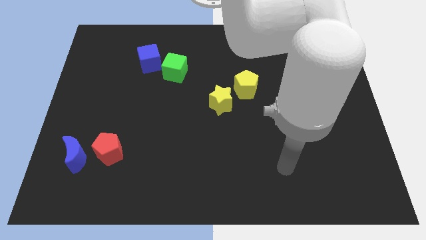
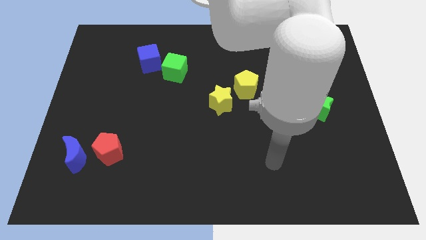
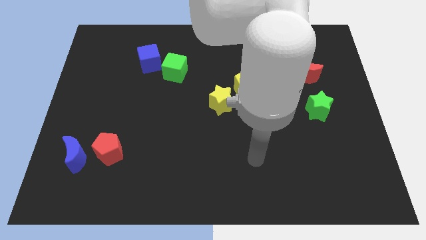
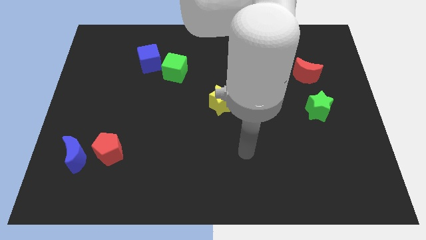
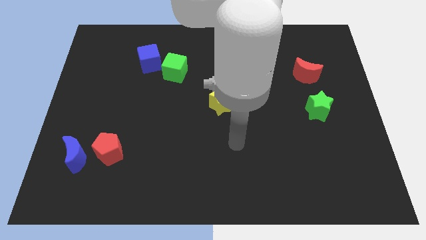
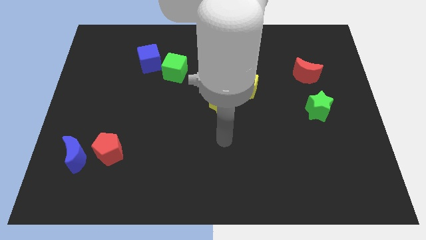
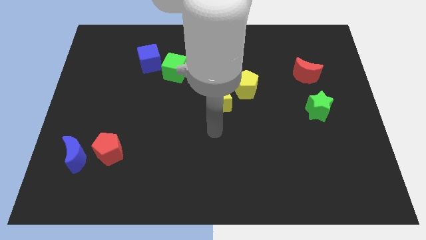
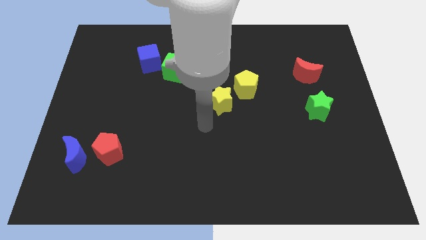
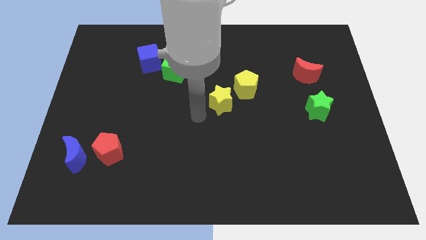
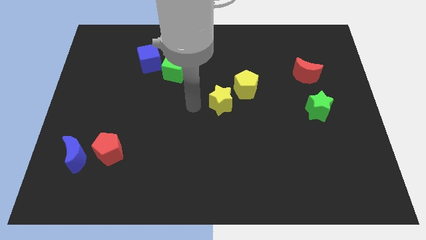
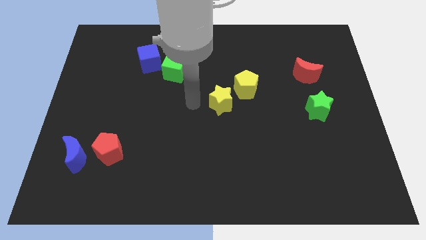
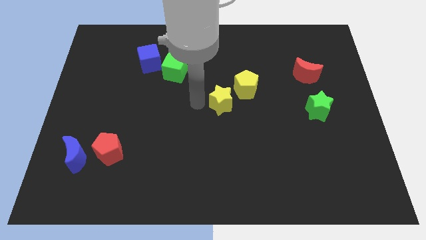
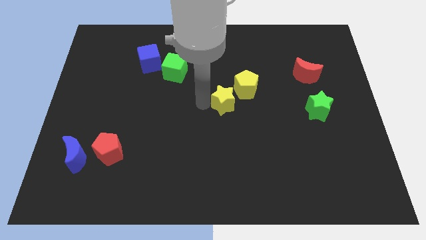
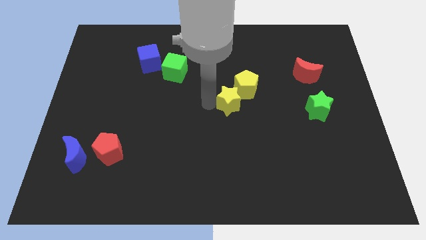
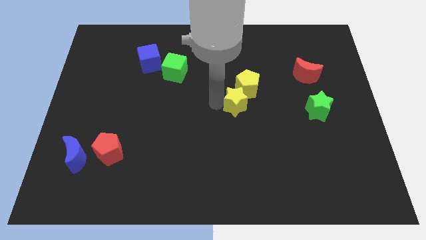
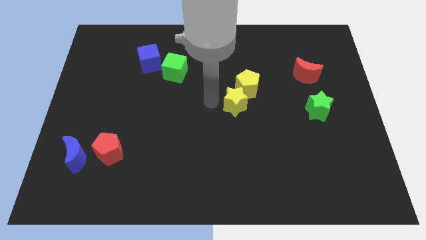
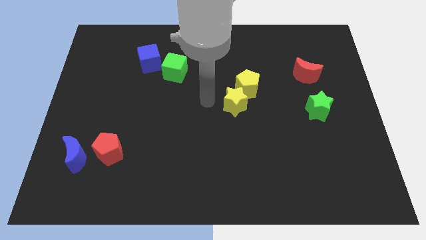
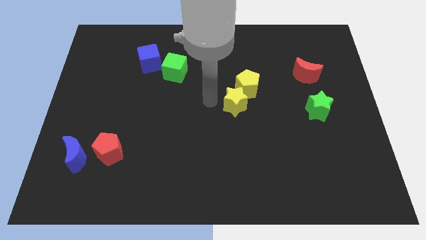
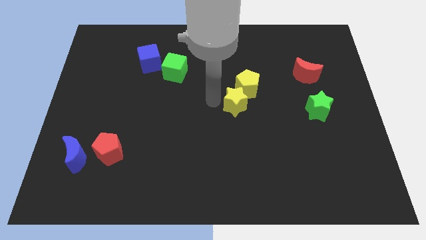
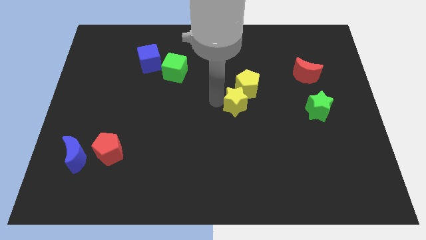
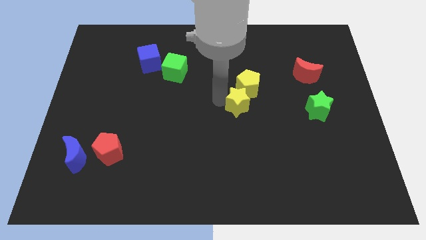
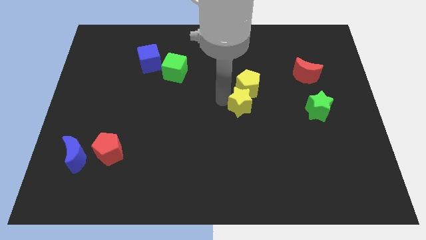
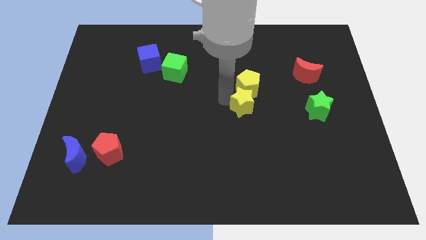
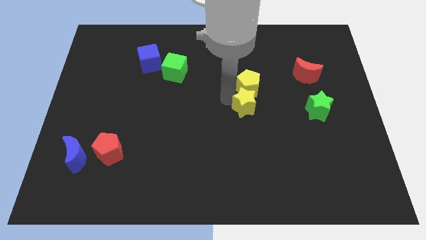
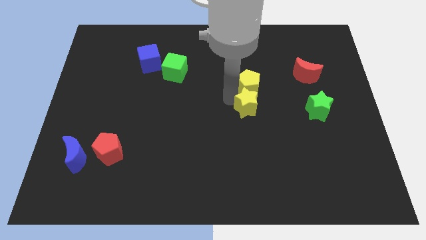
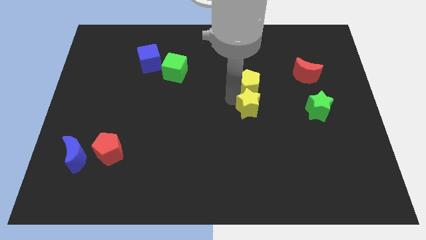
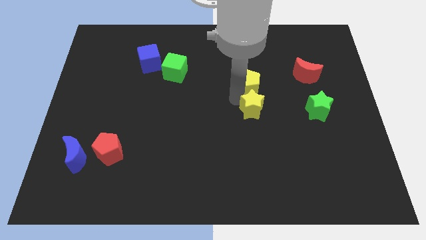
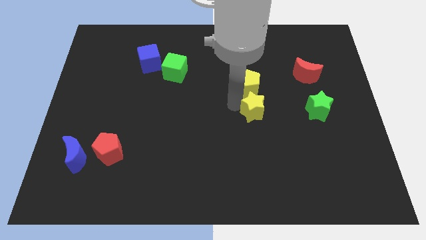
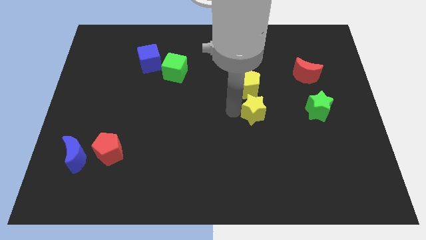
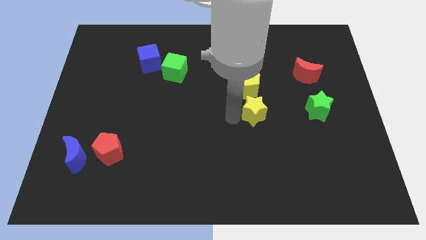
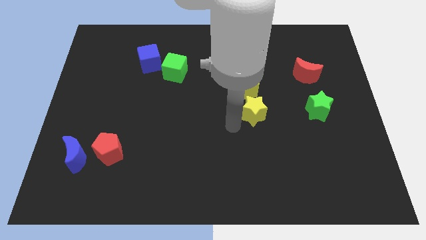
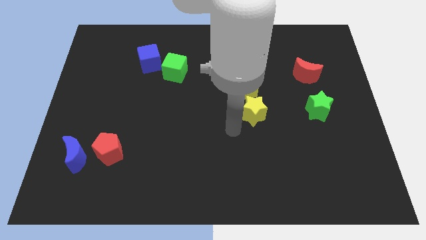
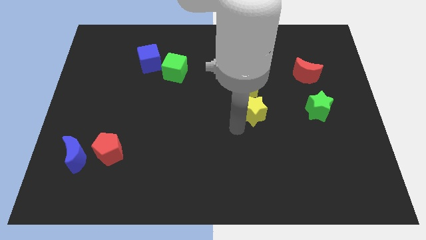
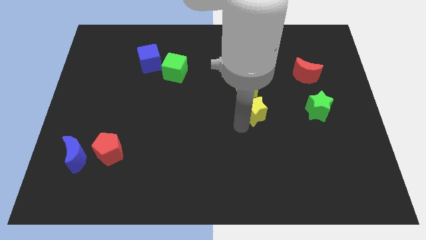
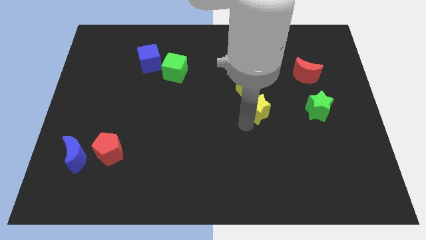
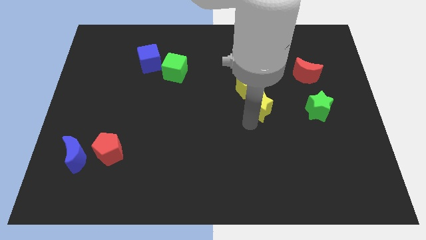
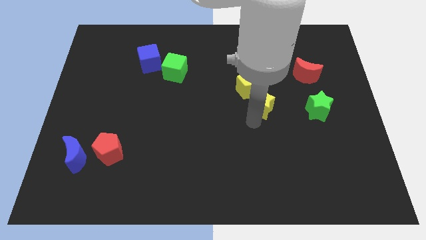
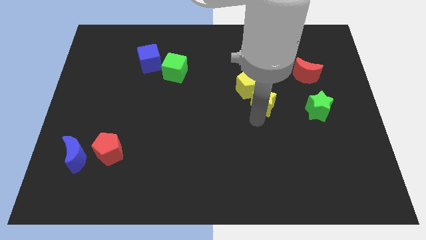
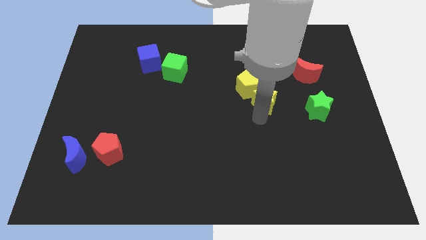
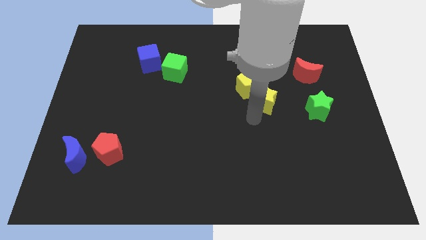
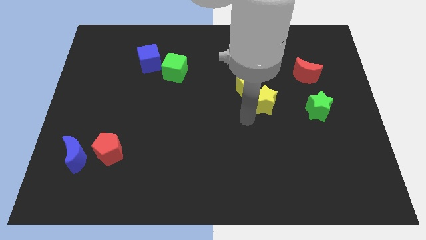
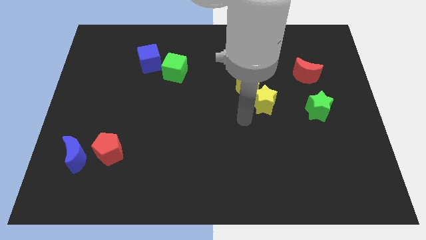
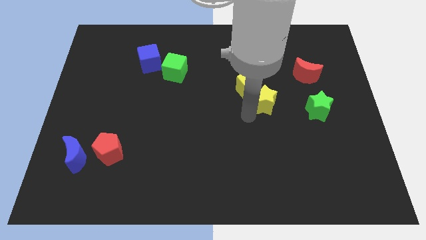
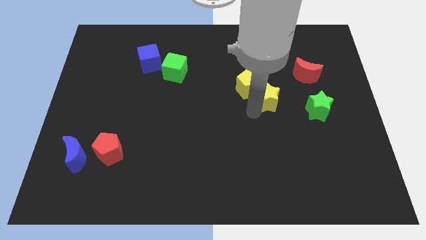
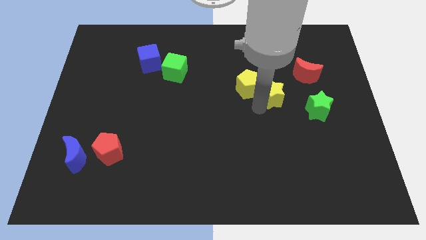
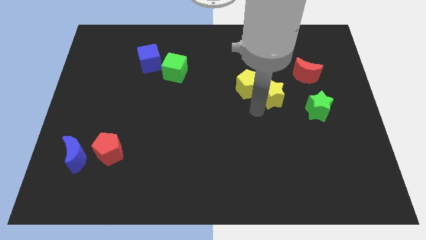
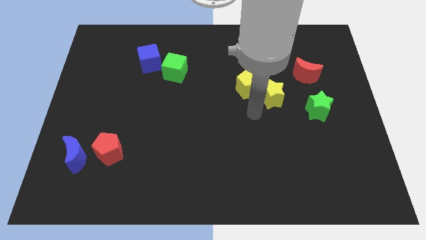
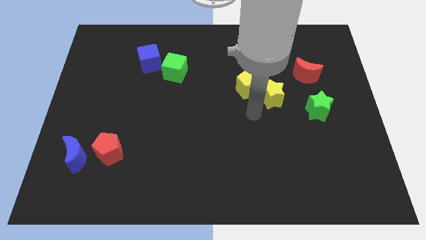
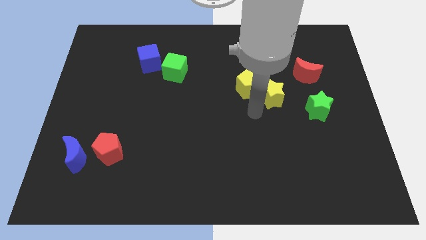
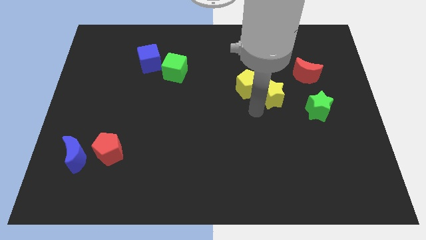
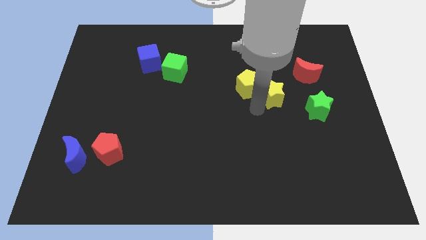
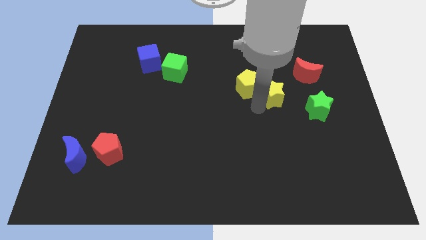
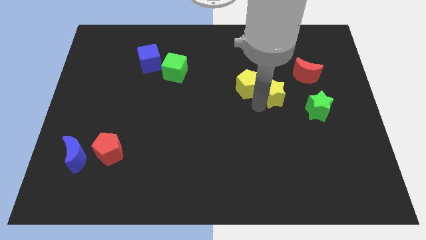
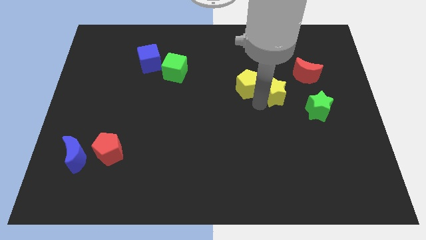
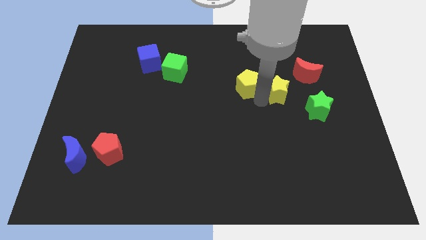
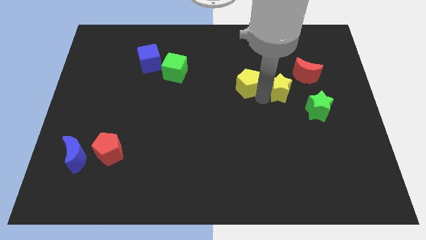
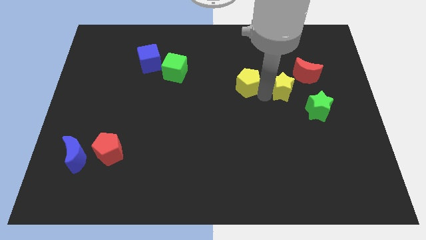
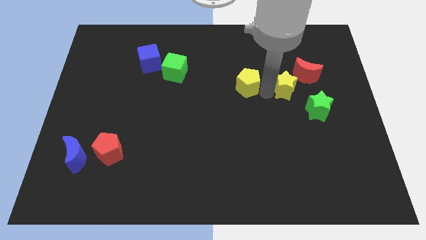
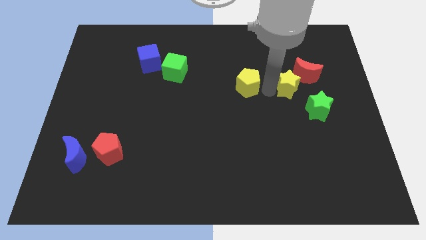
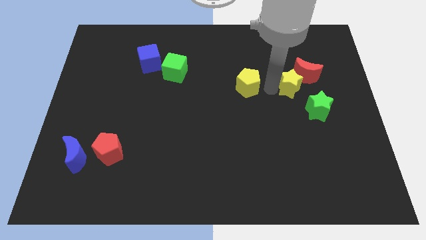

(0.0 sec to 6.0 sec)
put the yellow star close to the red moon

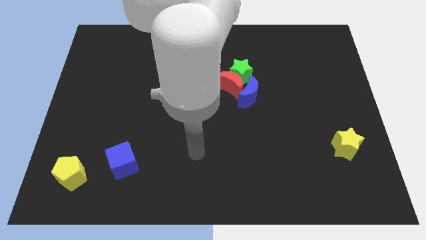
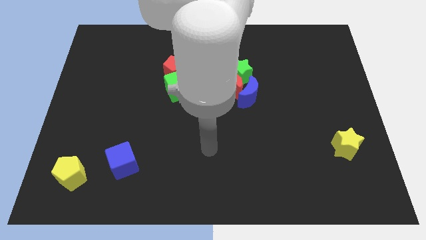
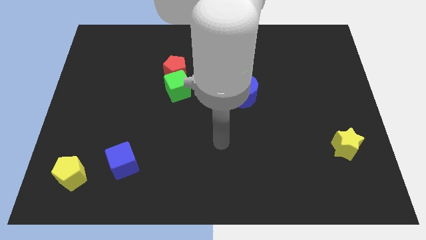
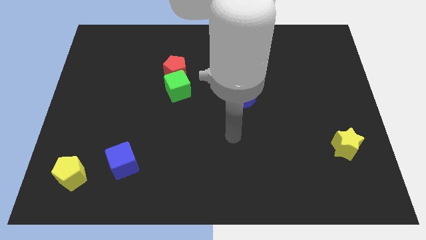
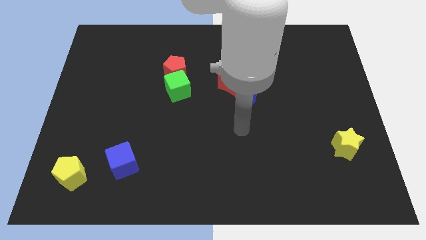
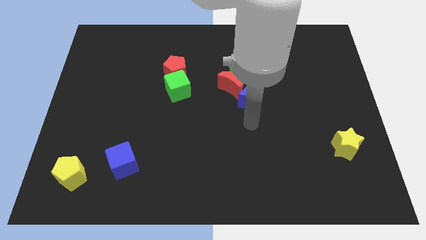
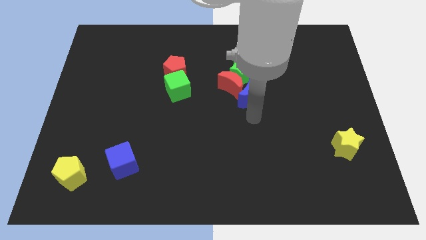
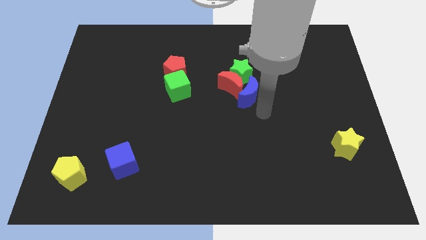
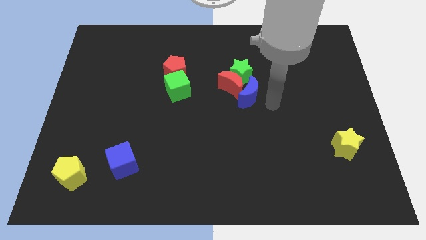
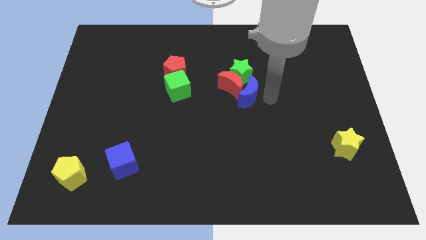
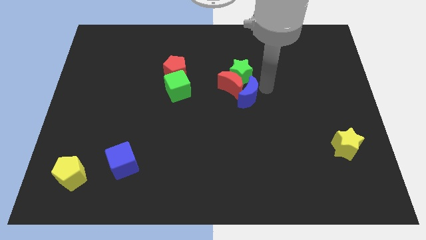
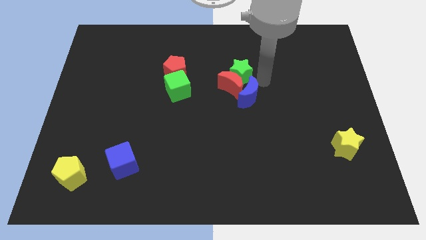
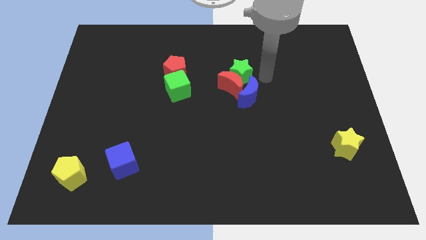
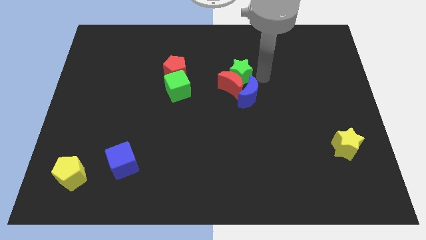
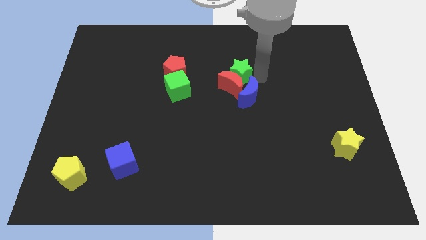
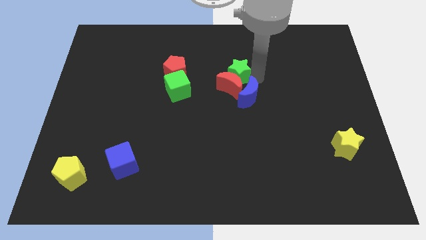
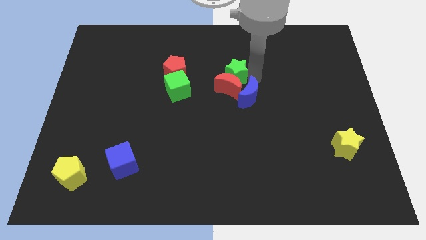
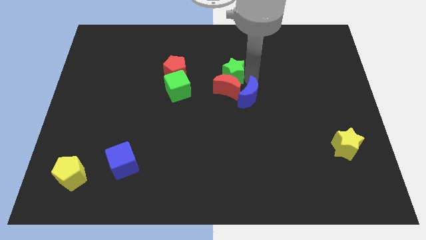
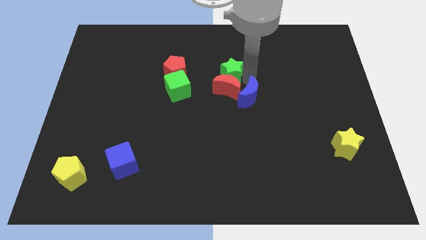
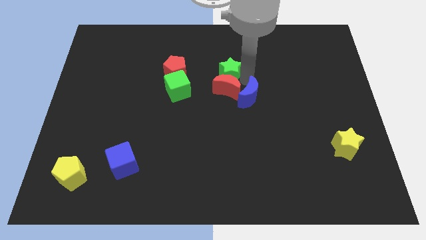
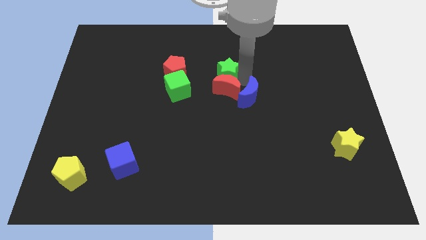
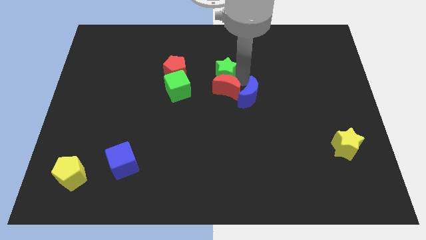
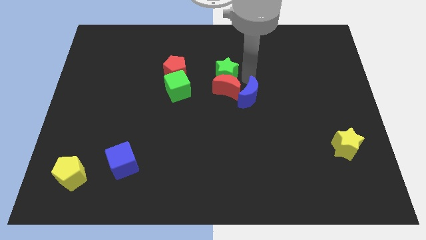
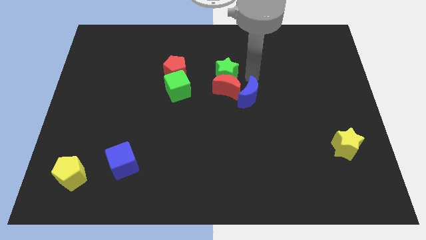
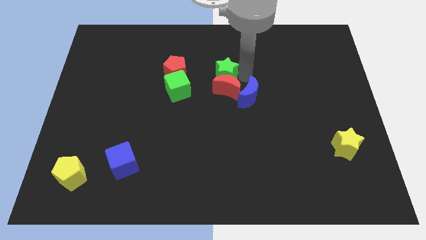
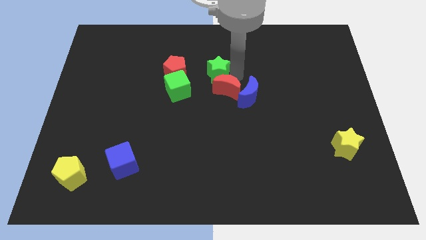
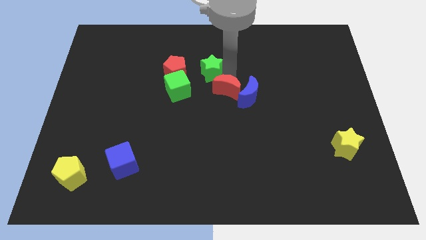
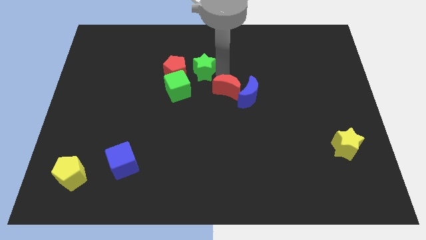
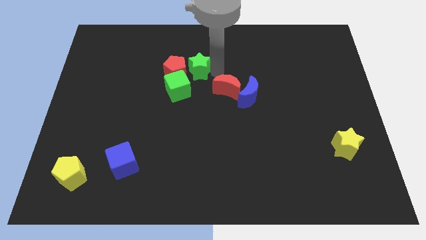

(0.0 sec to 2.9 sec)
move the green star towards the red pentagon

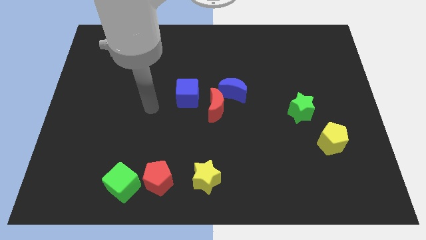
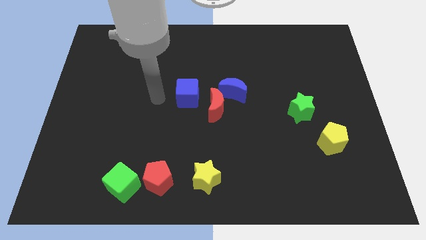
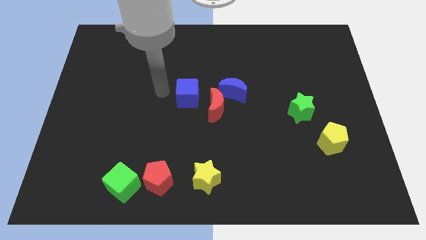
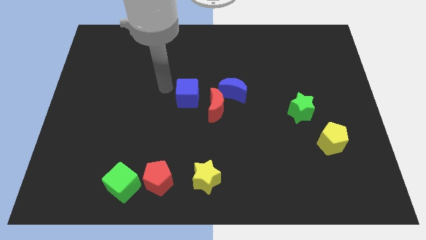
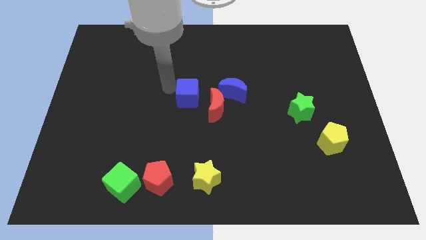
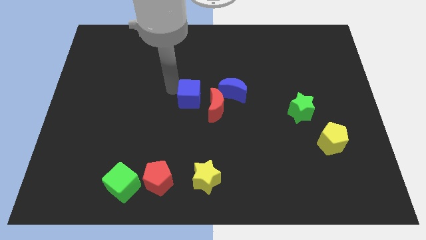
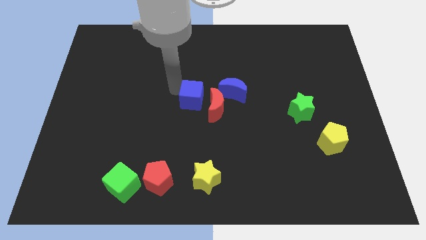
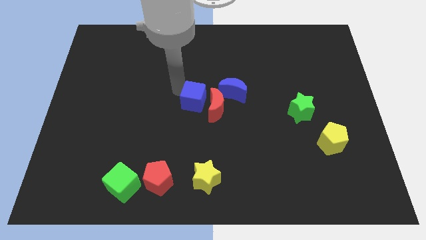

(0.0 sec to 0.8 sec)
put the blue cube to the red moon
